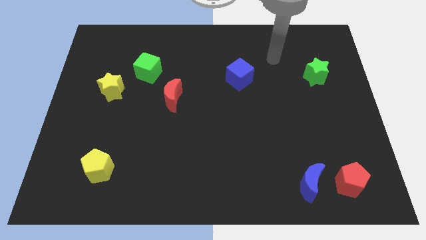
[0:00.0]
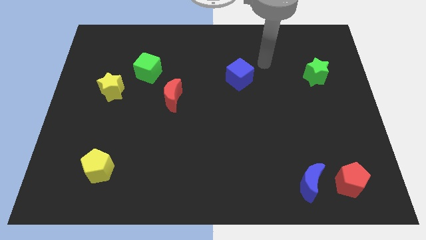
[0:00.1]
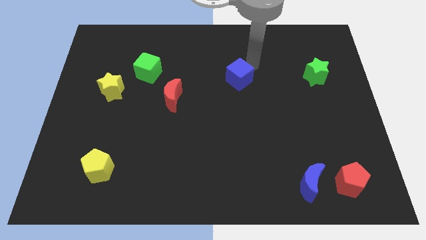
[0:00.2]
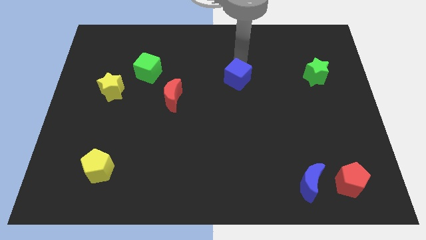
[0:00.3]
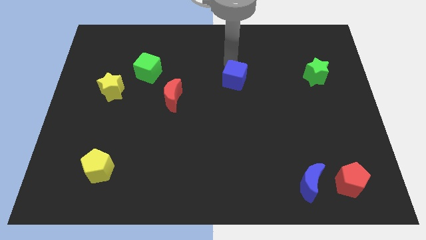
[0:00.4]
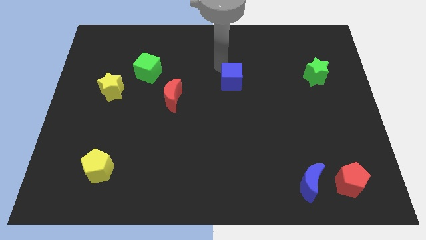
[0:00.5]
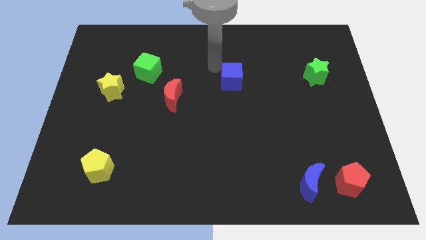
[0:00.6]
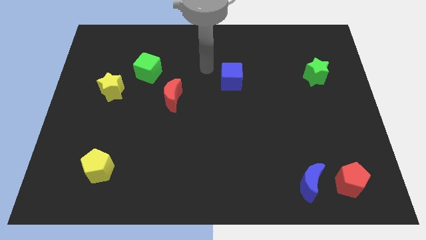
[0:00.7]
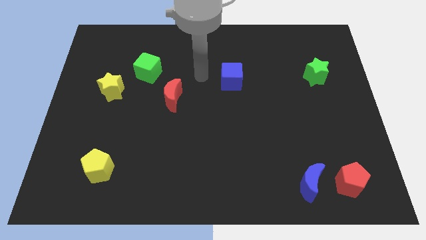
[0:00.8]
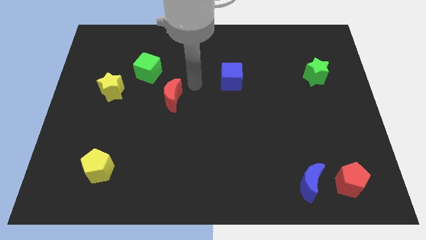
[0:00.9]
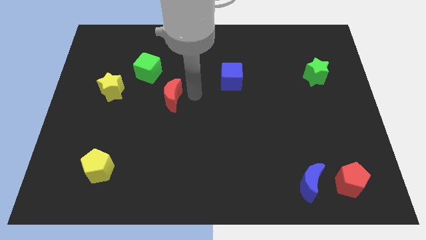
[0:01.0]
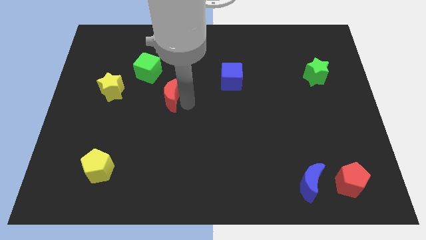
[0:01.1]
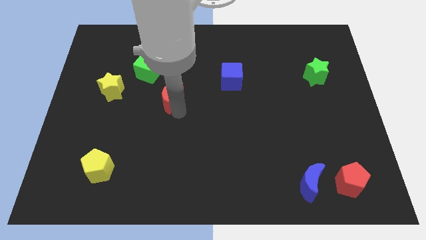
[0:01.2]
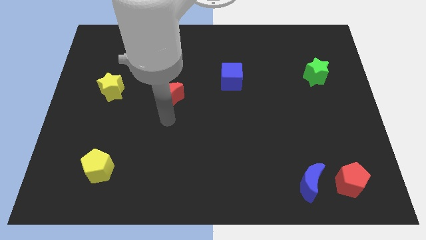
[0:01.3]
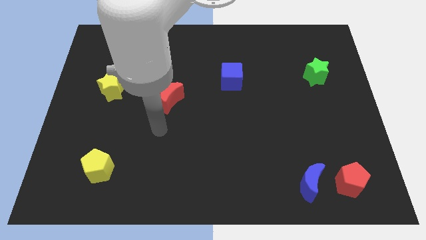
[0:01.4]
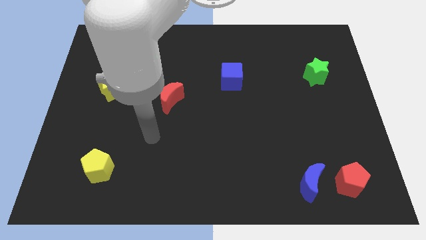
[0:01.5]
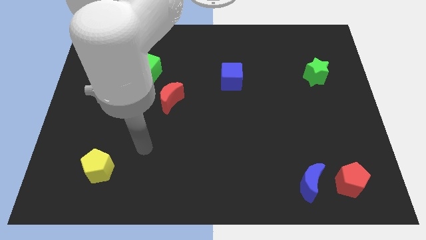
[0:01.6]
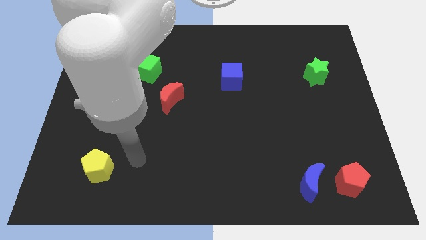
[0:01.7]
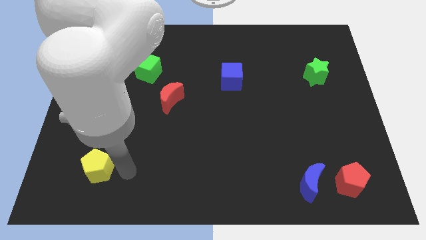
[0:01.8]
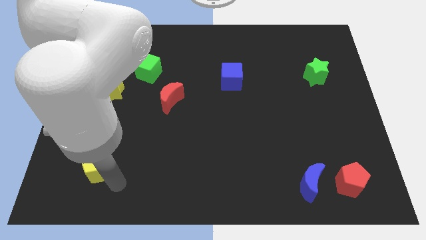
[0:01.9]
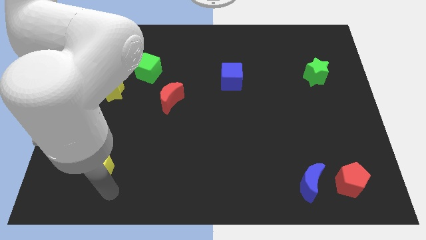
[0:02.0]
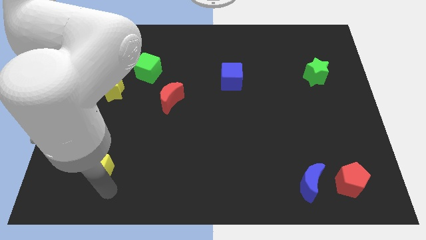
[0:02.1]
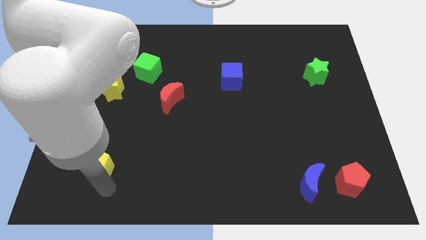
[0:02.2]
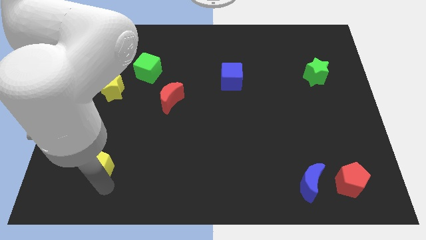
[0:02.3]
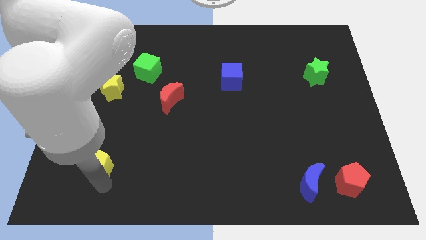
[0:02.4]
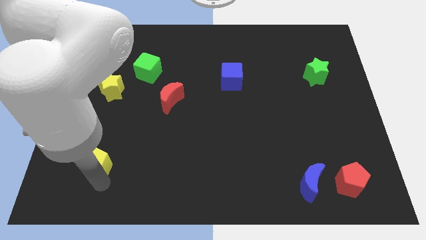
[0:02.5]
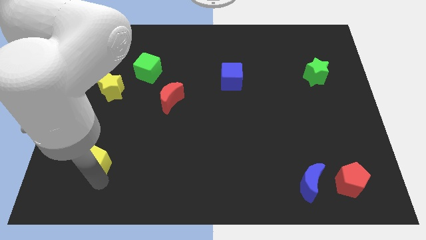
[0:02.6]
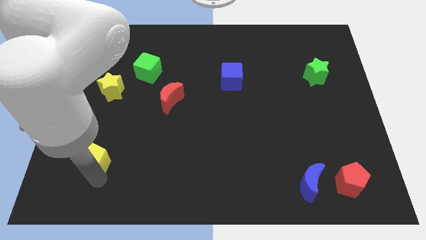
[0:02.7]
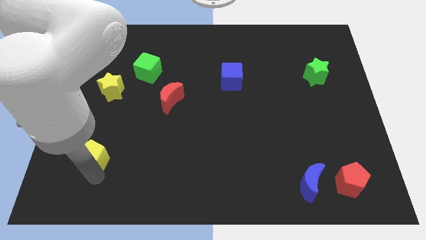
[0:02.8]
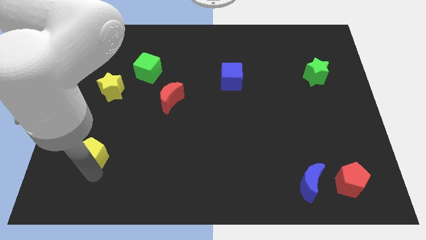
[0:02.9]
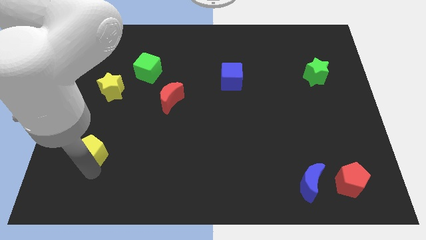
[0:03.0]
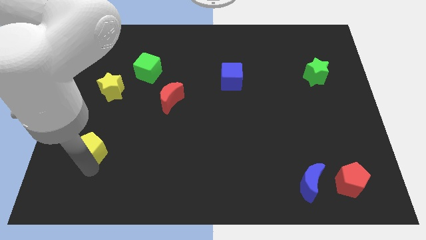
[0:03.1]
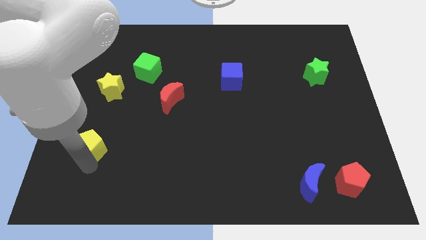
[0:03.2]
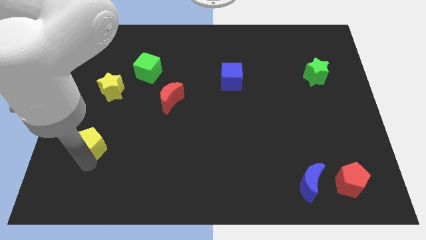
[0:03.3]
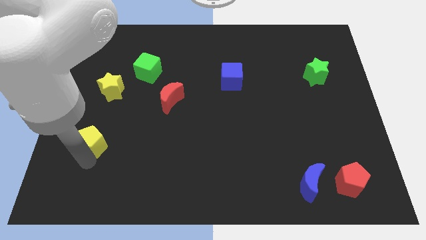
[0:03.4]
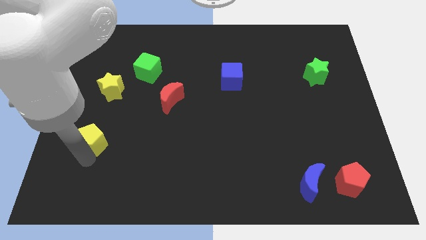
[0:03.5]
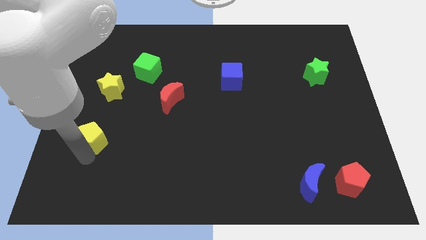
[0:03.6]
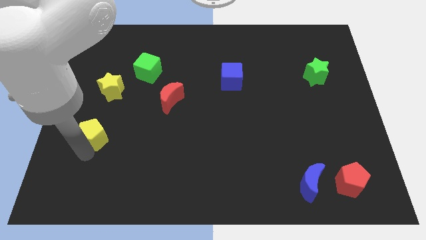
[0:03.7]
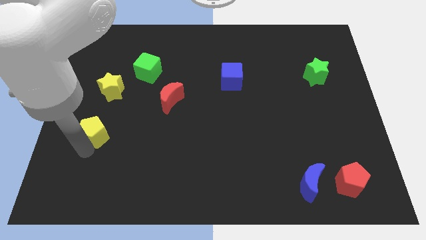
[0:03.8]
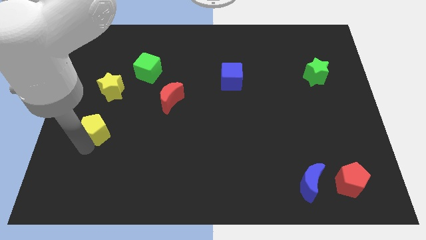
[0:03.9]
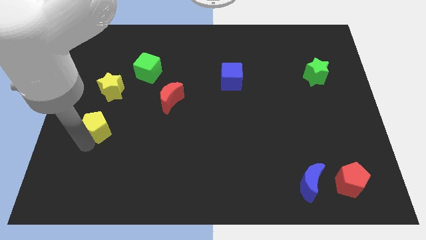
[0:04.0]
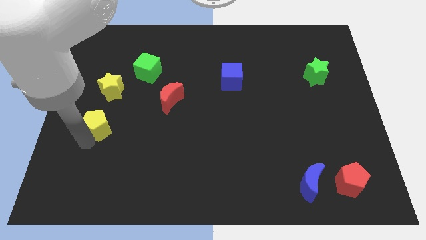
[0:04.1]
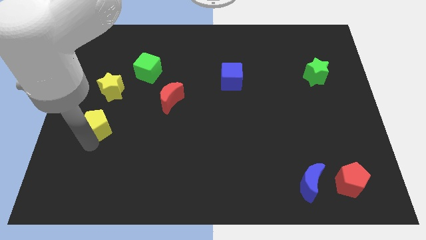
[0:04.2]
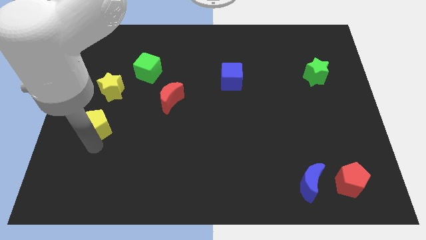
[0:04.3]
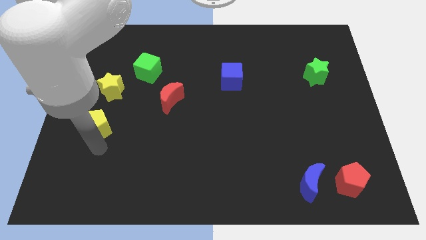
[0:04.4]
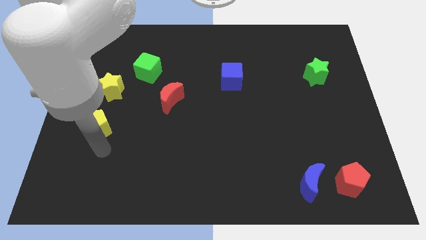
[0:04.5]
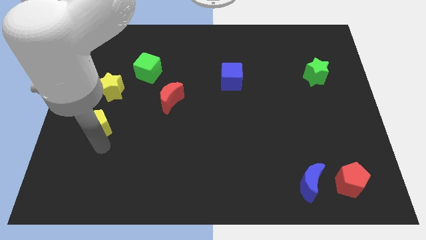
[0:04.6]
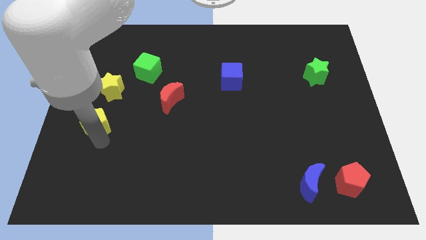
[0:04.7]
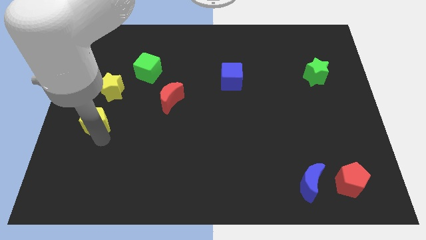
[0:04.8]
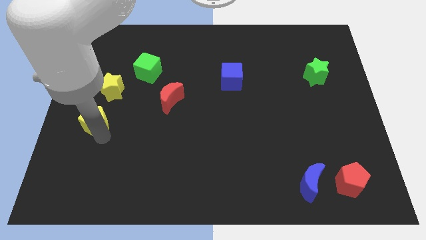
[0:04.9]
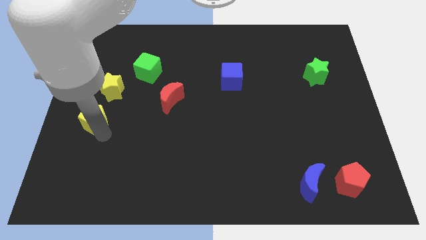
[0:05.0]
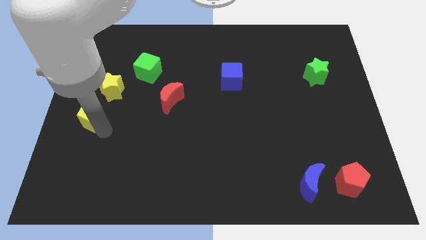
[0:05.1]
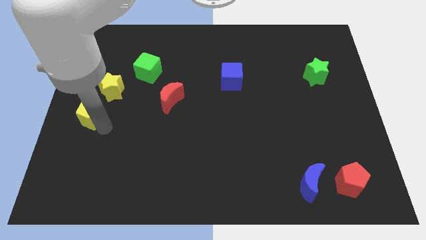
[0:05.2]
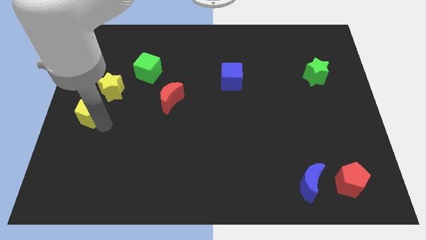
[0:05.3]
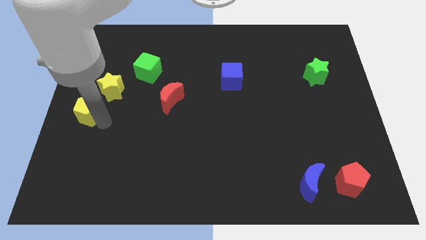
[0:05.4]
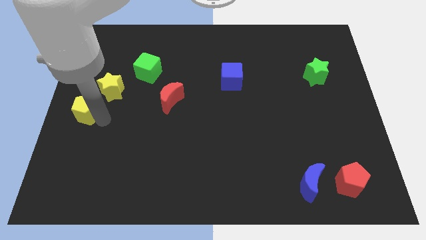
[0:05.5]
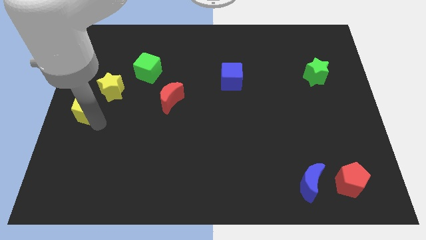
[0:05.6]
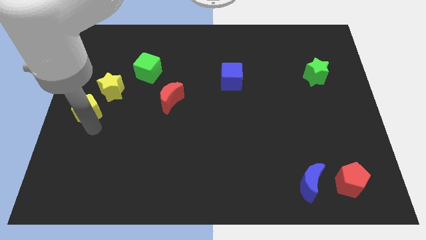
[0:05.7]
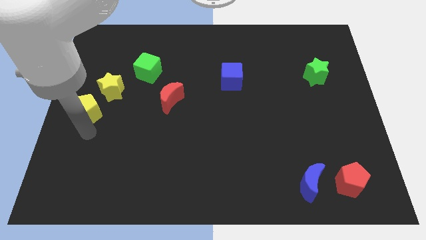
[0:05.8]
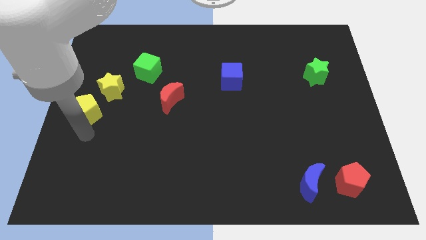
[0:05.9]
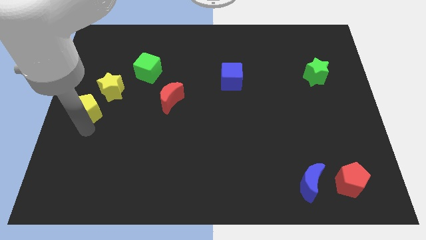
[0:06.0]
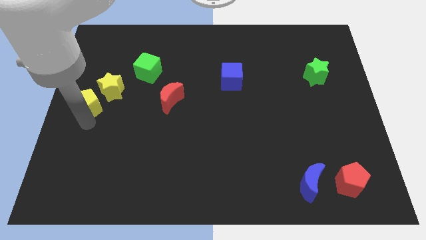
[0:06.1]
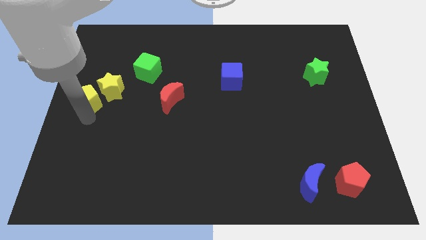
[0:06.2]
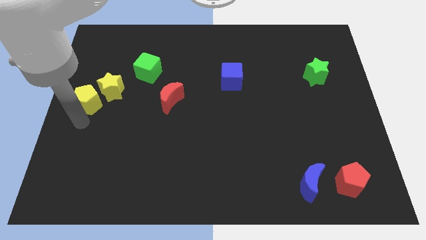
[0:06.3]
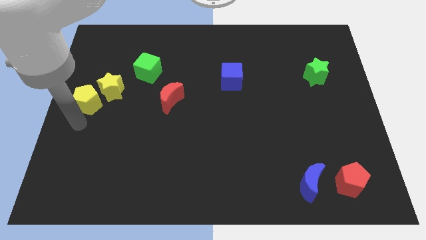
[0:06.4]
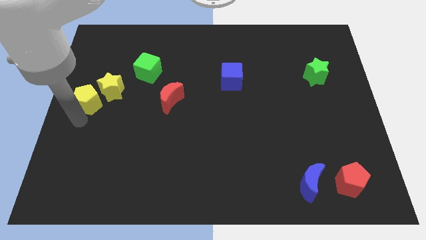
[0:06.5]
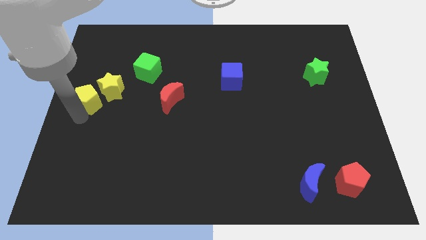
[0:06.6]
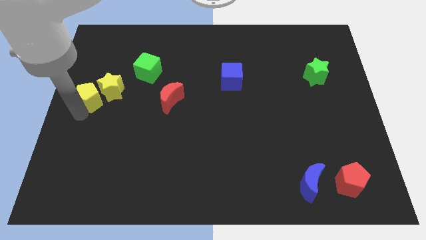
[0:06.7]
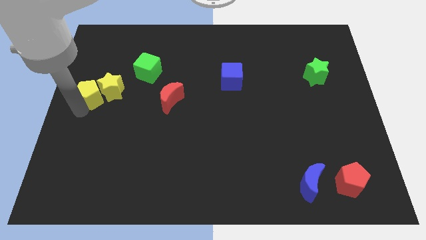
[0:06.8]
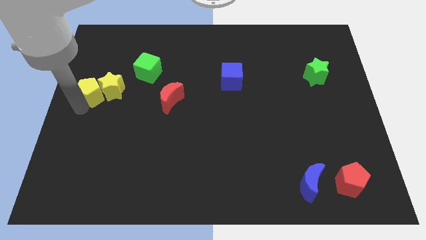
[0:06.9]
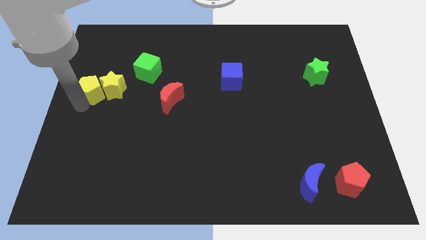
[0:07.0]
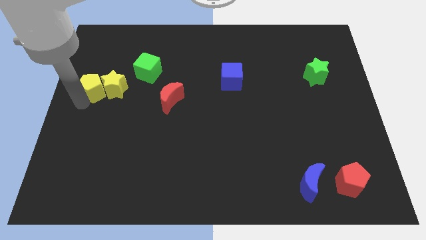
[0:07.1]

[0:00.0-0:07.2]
move the yellow pentagon up

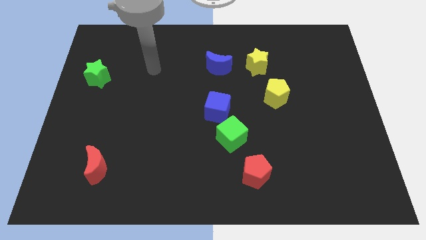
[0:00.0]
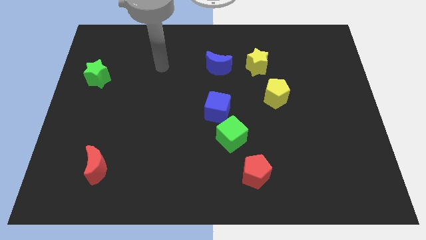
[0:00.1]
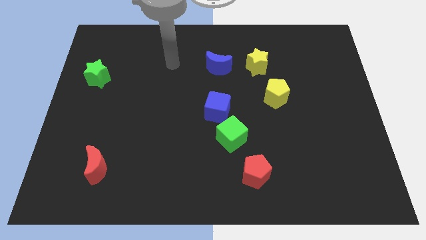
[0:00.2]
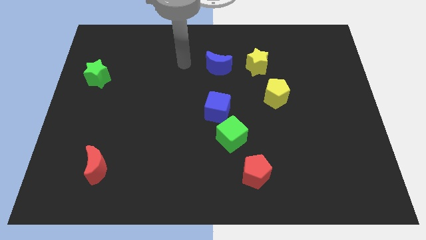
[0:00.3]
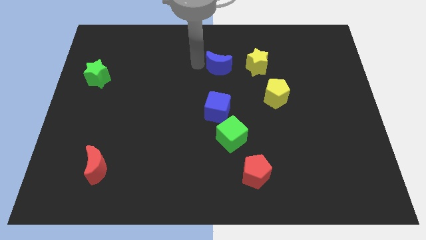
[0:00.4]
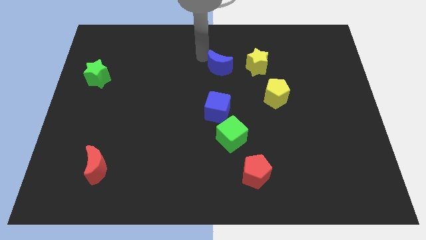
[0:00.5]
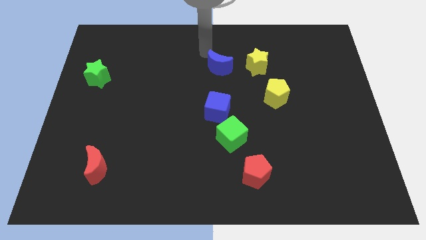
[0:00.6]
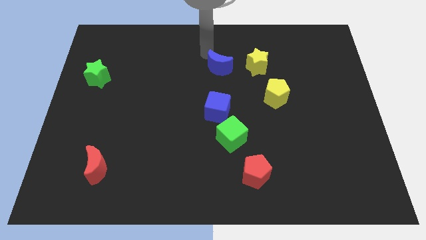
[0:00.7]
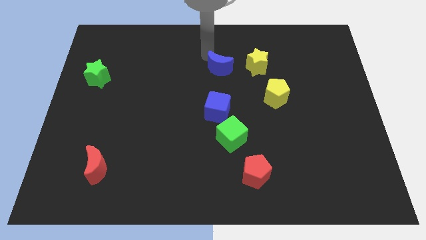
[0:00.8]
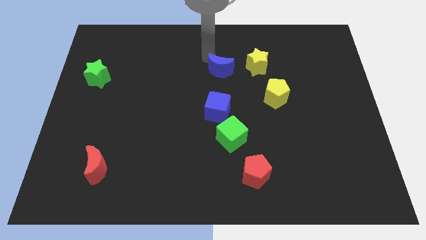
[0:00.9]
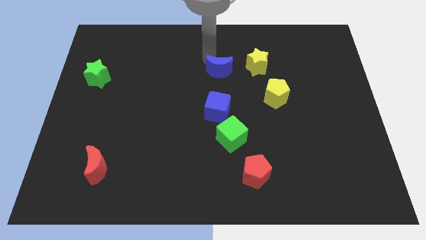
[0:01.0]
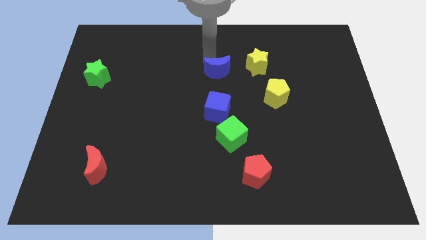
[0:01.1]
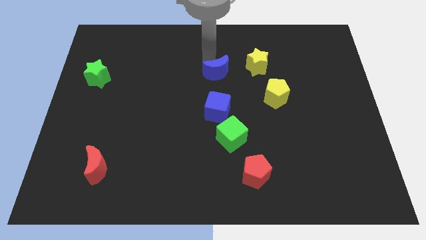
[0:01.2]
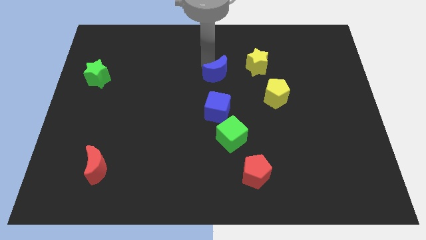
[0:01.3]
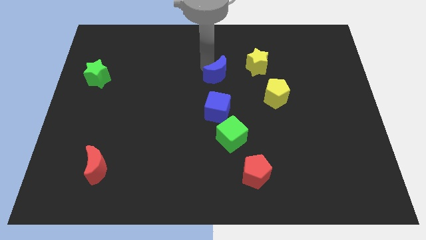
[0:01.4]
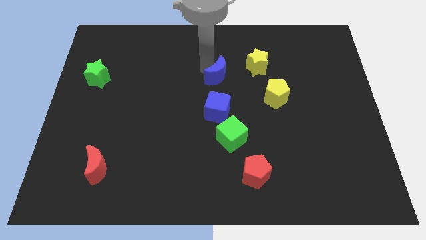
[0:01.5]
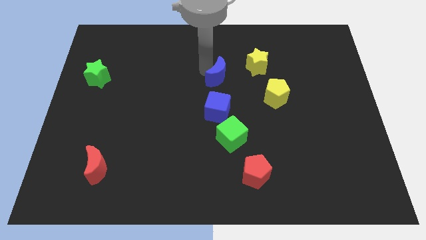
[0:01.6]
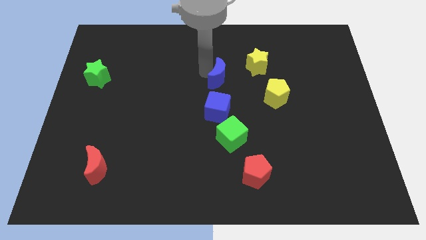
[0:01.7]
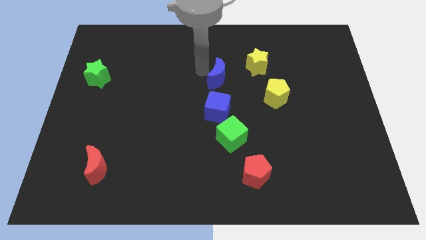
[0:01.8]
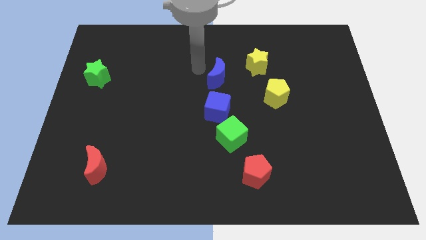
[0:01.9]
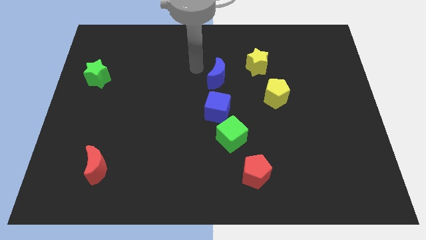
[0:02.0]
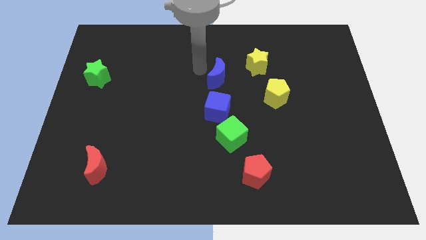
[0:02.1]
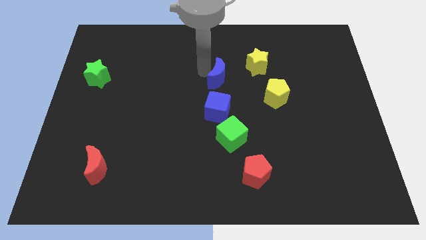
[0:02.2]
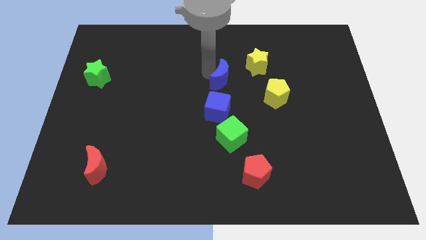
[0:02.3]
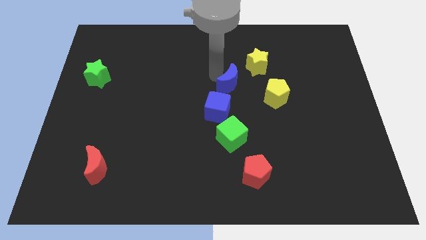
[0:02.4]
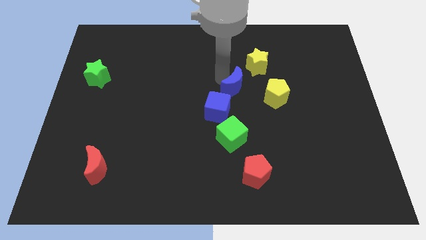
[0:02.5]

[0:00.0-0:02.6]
push the blue moon downwards and right slightly
